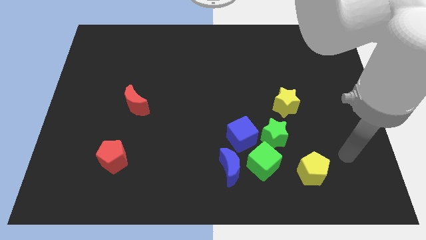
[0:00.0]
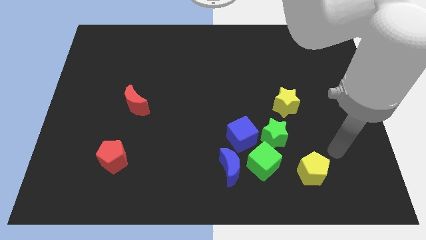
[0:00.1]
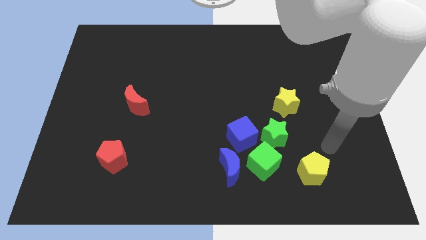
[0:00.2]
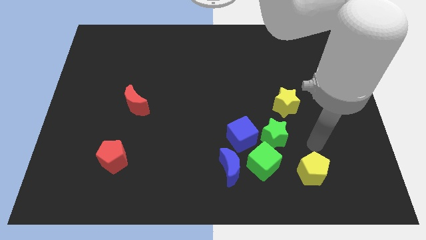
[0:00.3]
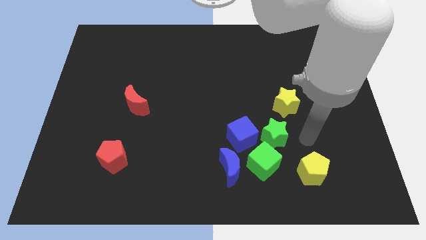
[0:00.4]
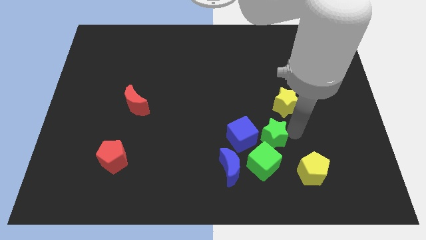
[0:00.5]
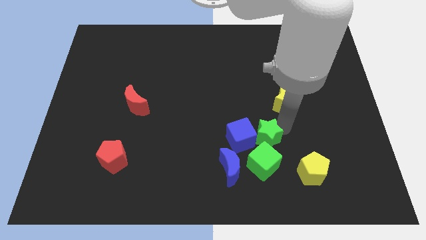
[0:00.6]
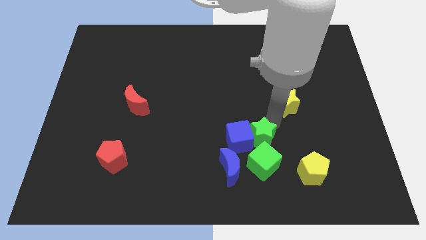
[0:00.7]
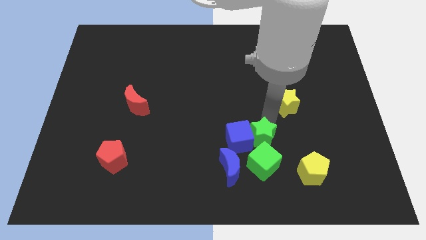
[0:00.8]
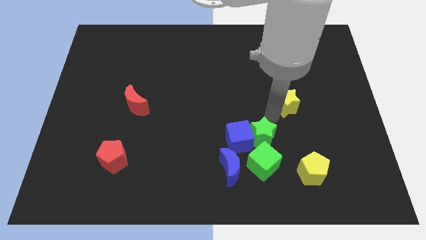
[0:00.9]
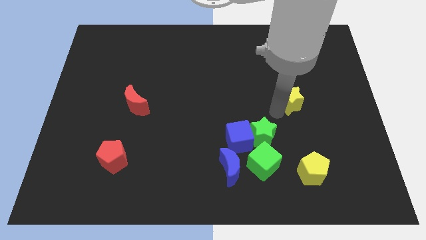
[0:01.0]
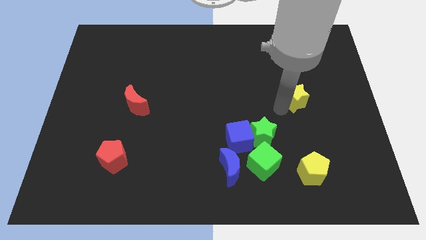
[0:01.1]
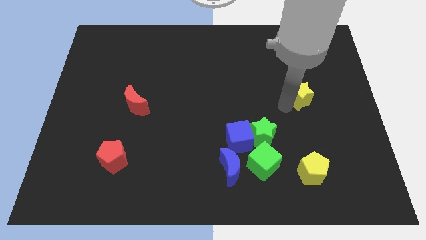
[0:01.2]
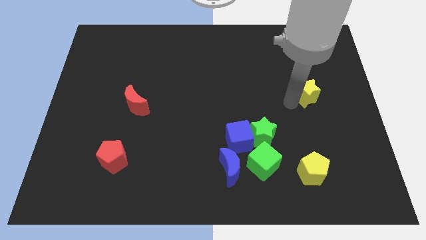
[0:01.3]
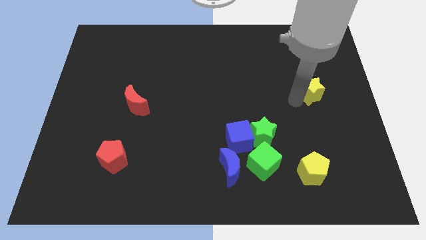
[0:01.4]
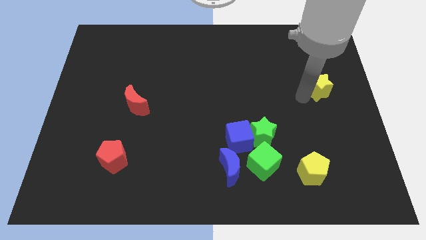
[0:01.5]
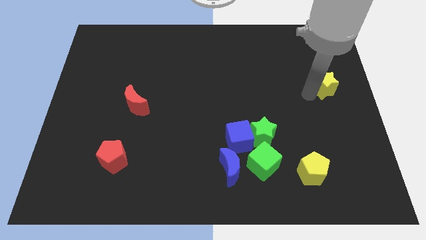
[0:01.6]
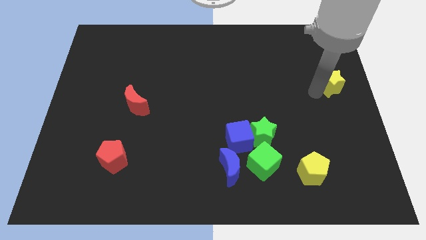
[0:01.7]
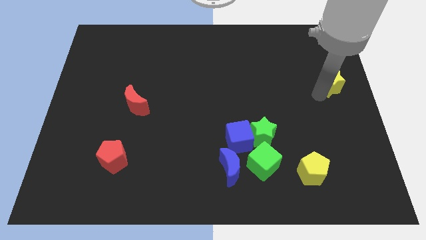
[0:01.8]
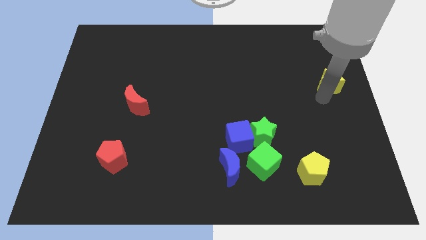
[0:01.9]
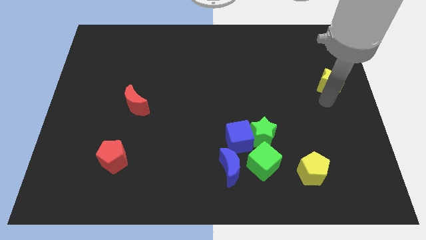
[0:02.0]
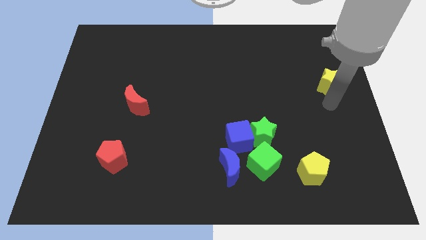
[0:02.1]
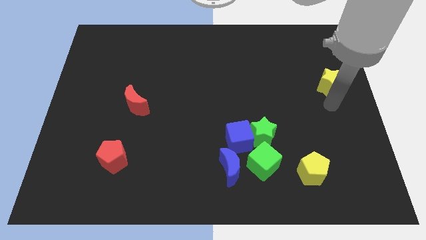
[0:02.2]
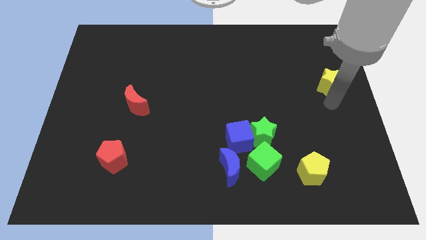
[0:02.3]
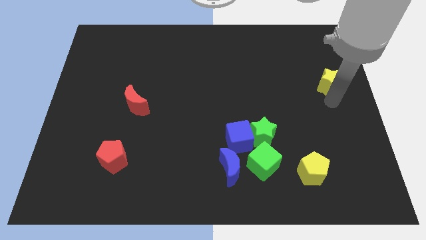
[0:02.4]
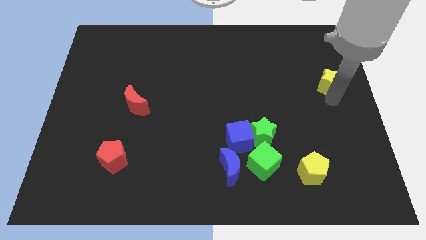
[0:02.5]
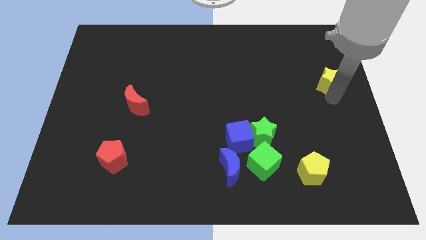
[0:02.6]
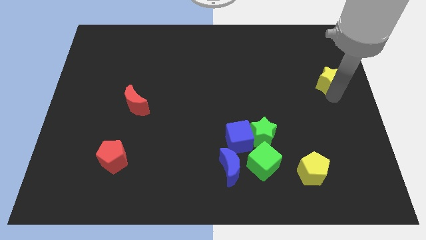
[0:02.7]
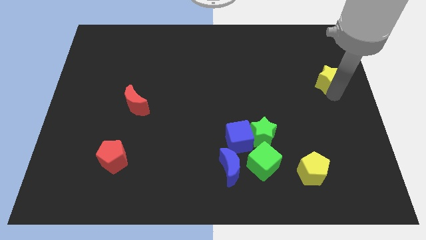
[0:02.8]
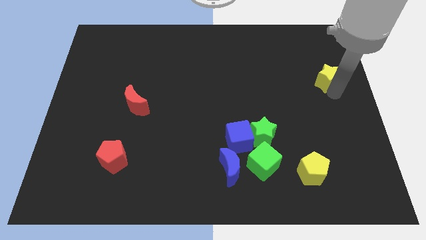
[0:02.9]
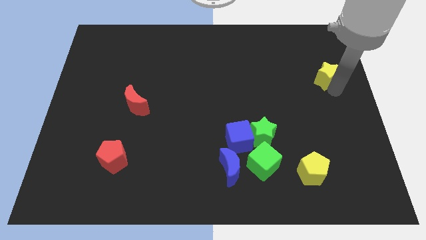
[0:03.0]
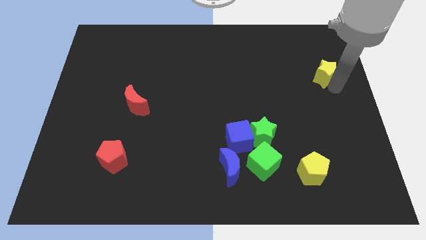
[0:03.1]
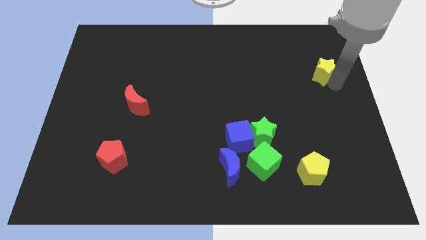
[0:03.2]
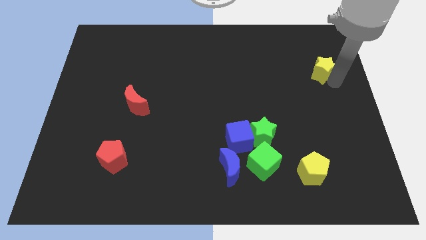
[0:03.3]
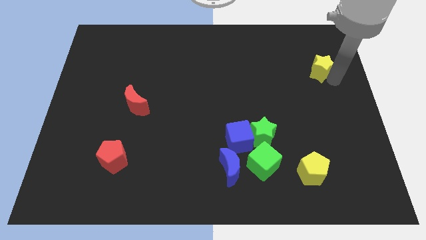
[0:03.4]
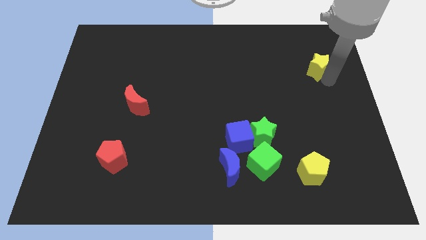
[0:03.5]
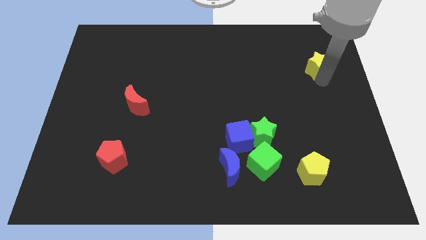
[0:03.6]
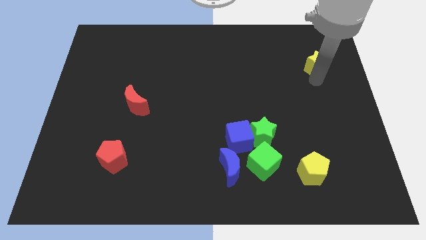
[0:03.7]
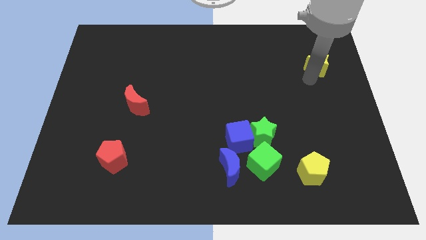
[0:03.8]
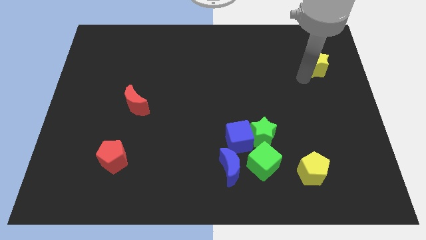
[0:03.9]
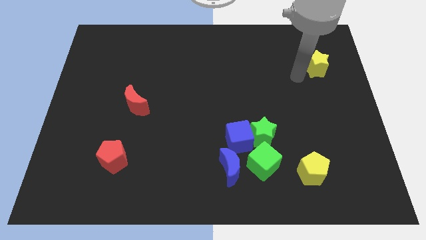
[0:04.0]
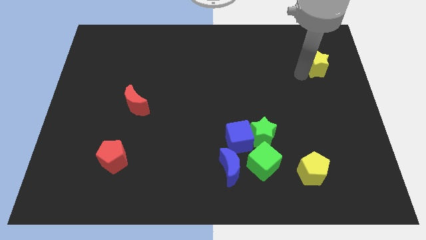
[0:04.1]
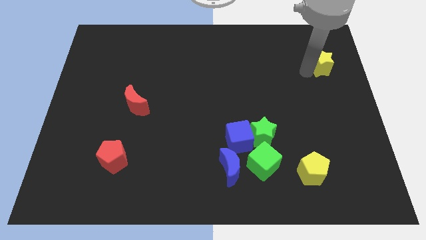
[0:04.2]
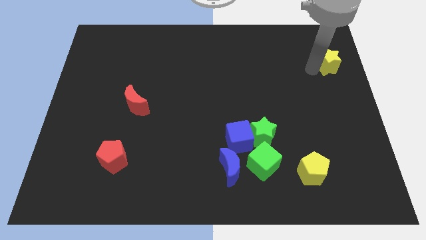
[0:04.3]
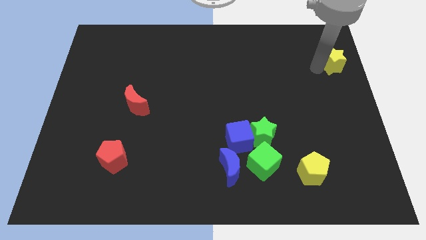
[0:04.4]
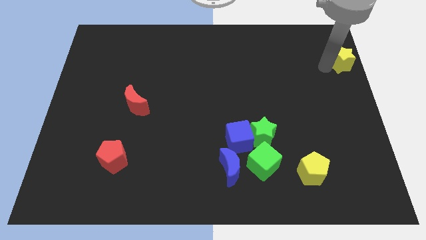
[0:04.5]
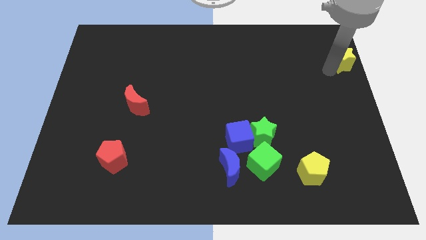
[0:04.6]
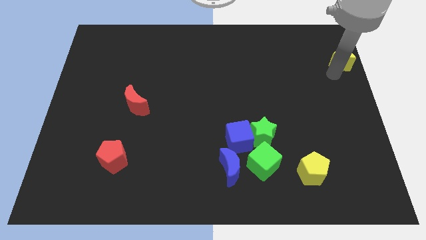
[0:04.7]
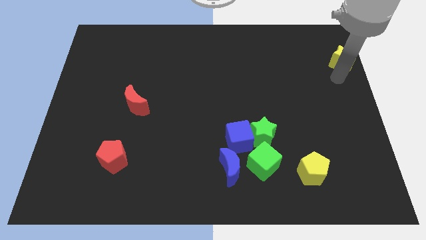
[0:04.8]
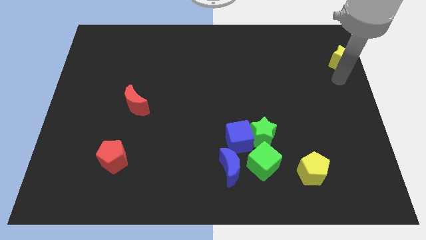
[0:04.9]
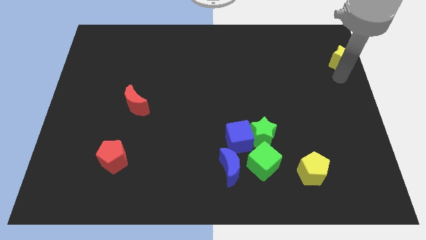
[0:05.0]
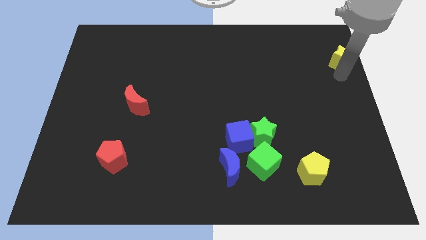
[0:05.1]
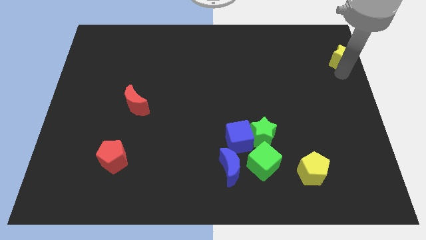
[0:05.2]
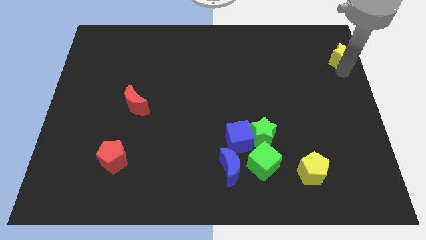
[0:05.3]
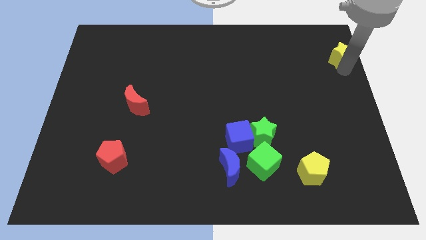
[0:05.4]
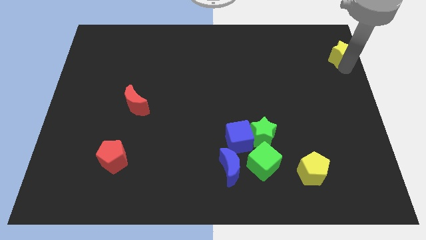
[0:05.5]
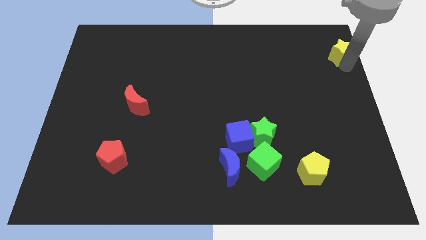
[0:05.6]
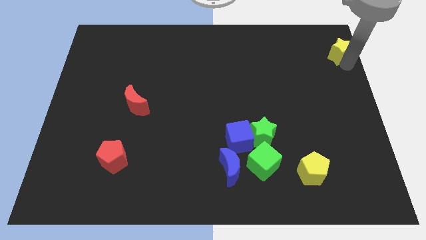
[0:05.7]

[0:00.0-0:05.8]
put the yellow star to the upper right corner

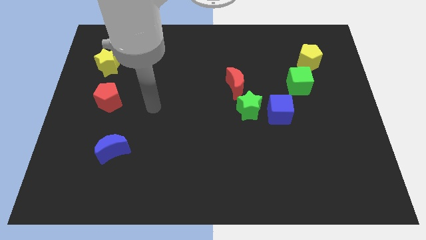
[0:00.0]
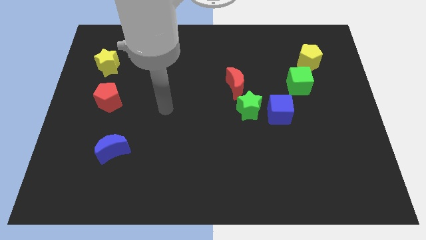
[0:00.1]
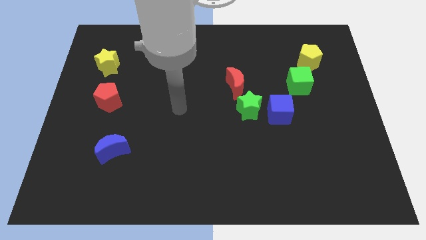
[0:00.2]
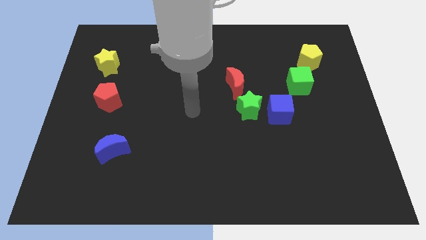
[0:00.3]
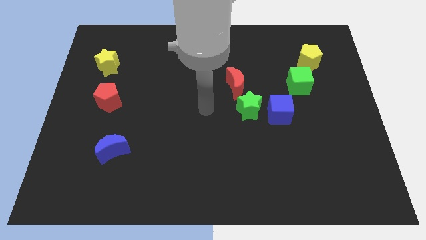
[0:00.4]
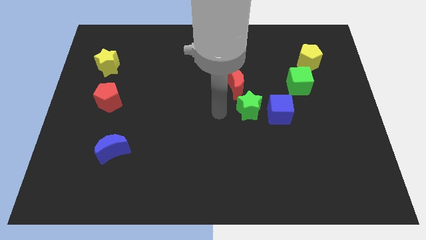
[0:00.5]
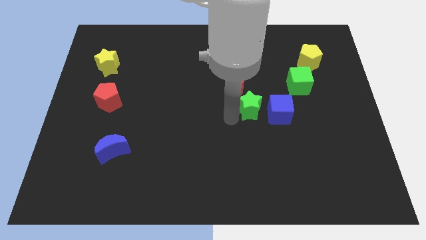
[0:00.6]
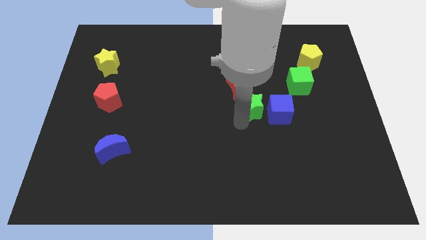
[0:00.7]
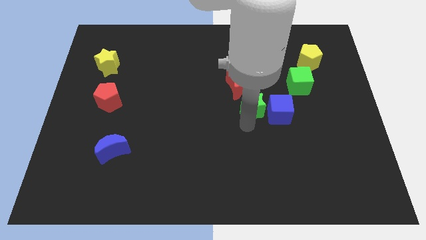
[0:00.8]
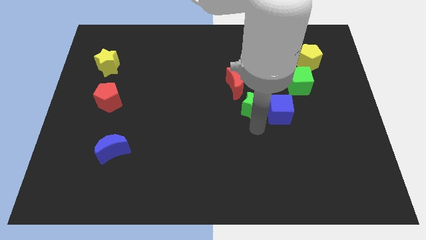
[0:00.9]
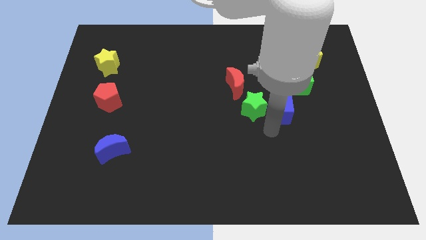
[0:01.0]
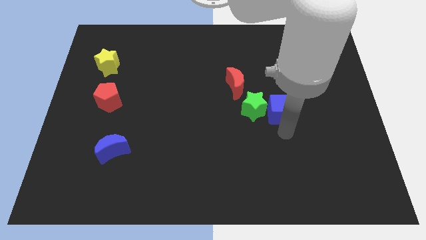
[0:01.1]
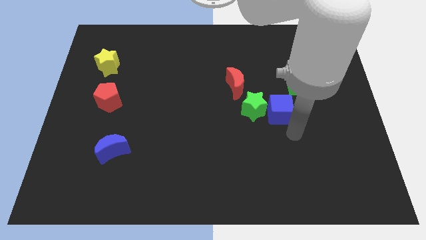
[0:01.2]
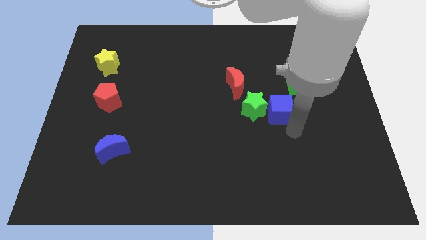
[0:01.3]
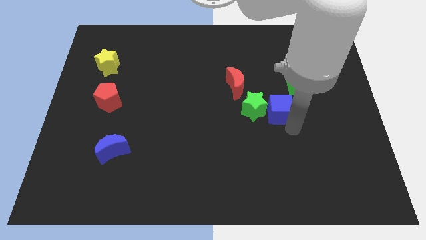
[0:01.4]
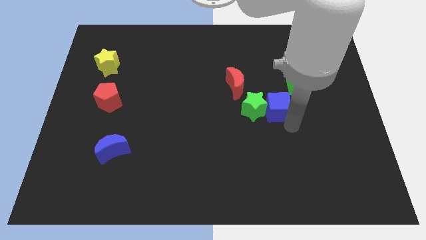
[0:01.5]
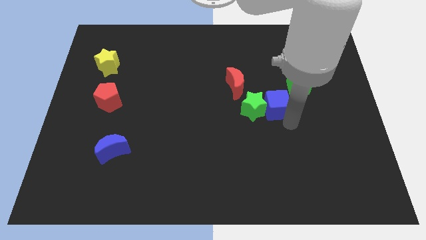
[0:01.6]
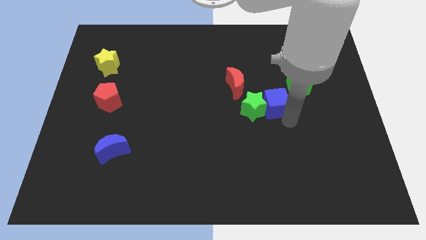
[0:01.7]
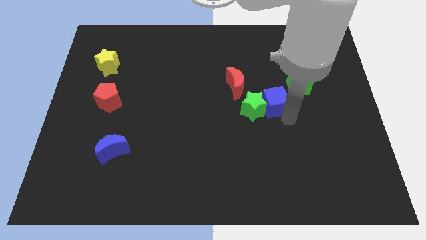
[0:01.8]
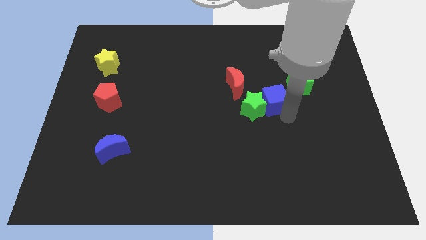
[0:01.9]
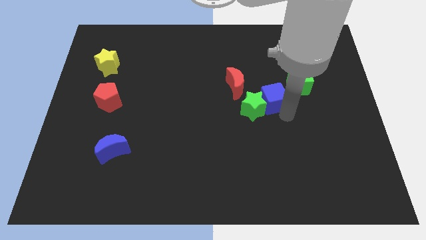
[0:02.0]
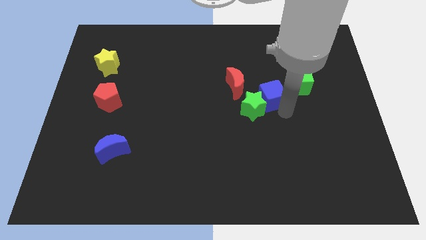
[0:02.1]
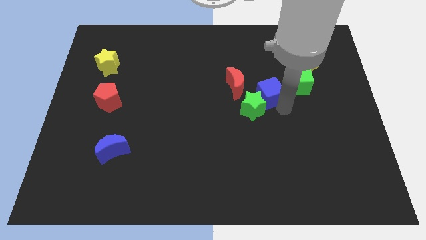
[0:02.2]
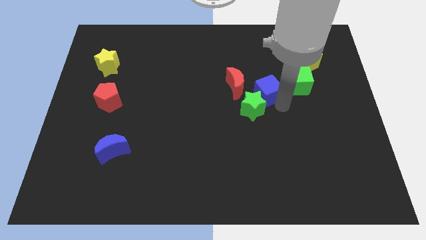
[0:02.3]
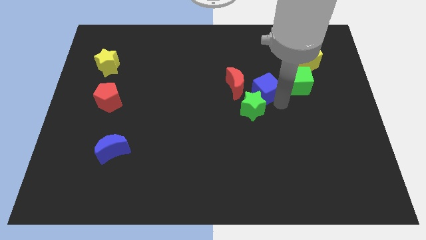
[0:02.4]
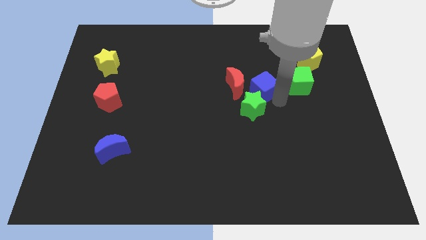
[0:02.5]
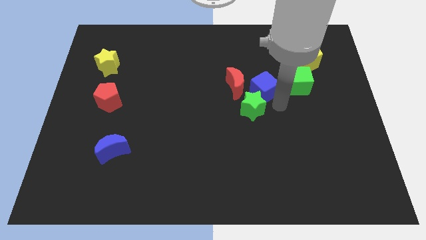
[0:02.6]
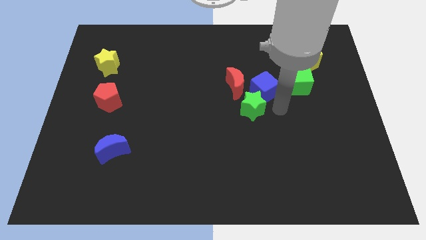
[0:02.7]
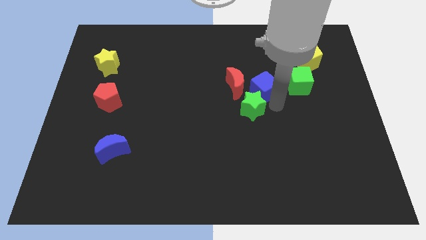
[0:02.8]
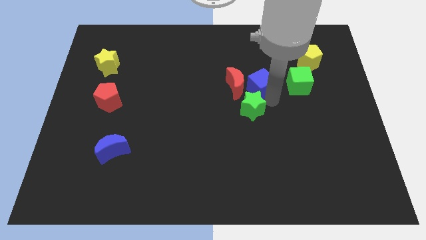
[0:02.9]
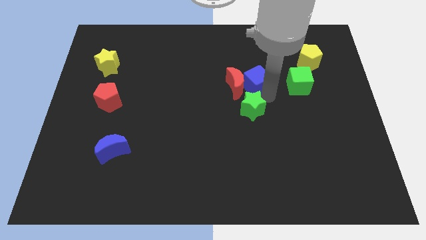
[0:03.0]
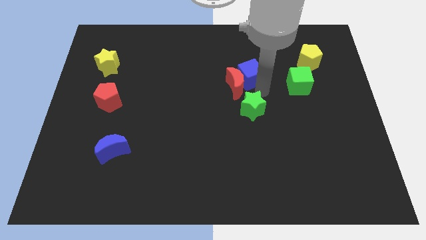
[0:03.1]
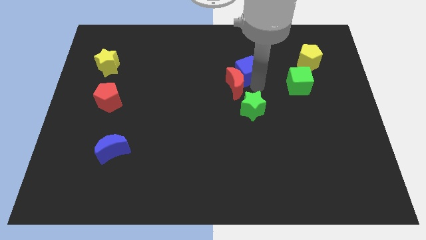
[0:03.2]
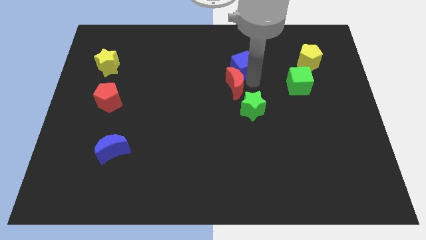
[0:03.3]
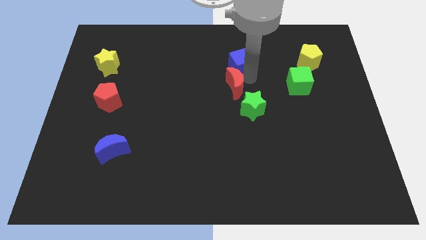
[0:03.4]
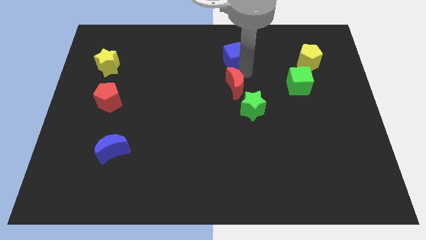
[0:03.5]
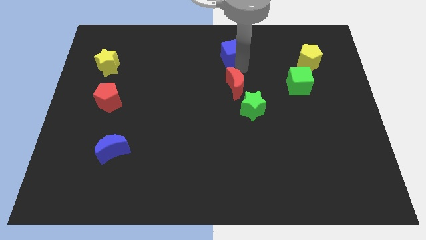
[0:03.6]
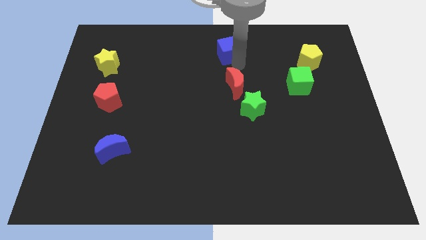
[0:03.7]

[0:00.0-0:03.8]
slide the blue cube to the top
